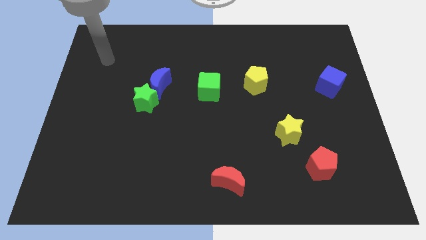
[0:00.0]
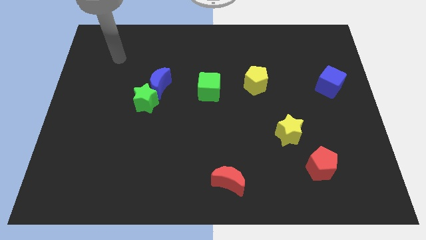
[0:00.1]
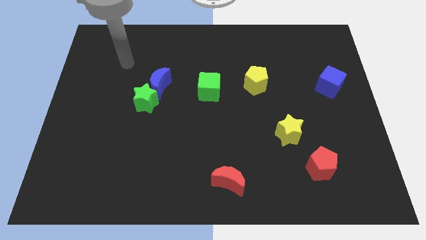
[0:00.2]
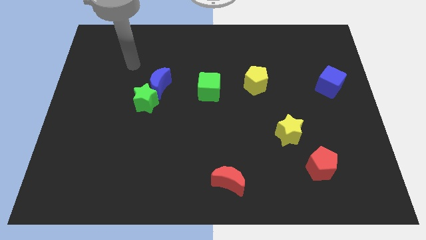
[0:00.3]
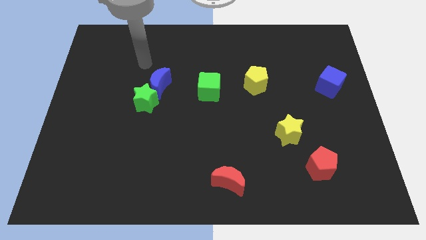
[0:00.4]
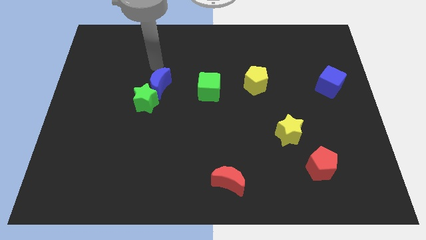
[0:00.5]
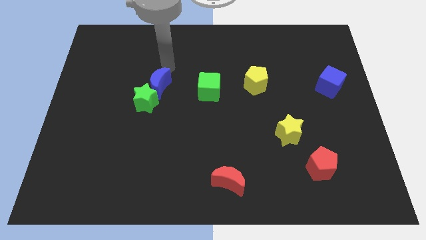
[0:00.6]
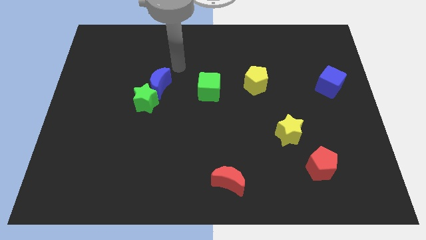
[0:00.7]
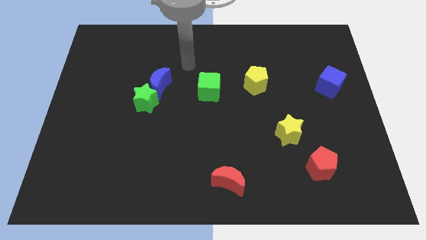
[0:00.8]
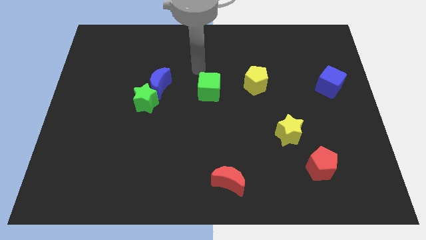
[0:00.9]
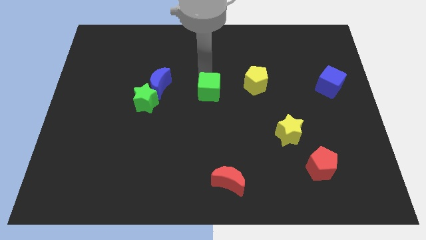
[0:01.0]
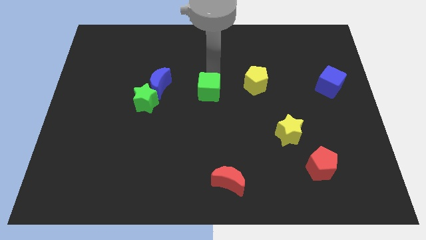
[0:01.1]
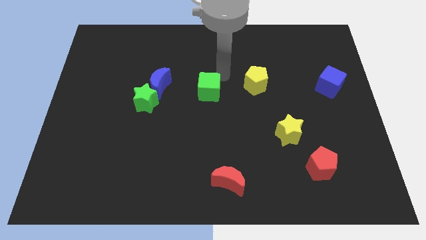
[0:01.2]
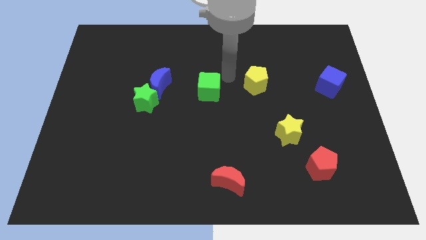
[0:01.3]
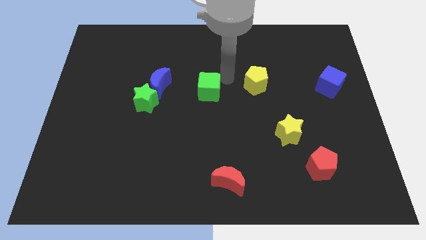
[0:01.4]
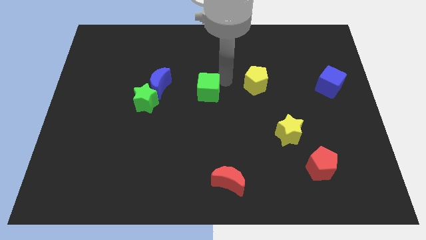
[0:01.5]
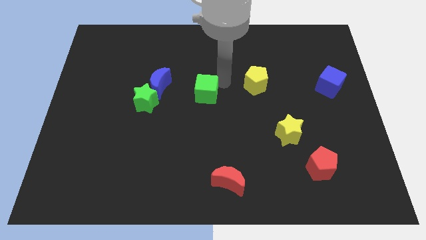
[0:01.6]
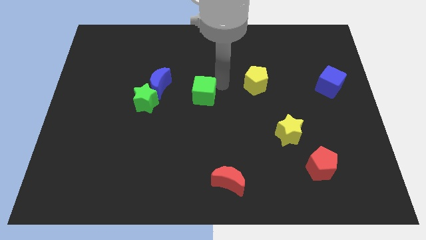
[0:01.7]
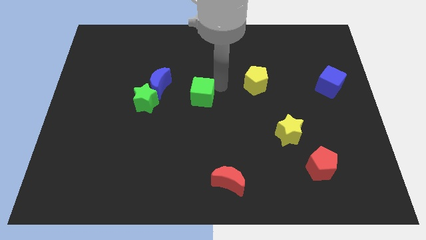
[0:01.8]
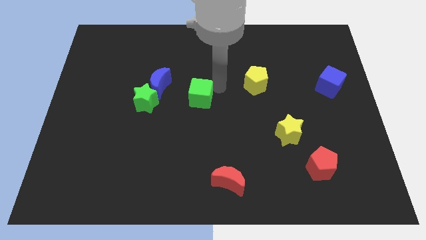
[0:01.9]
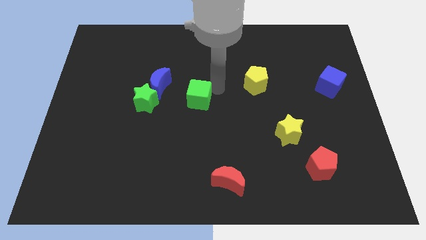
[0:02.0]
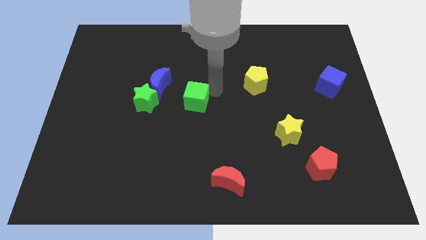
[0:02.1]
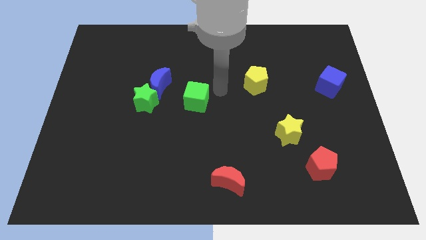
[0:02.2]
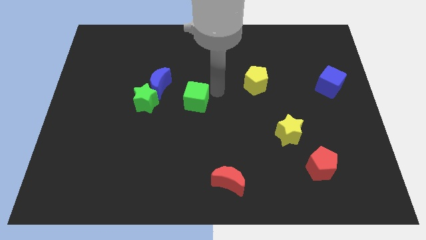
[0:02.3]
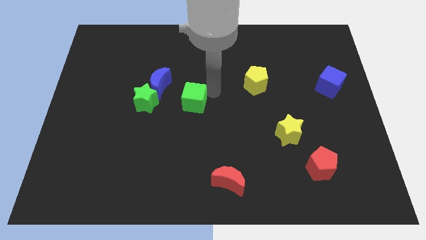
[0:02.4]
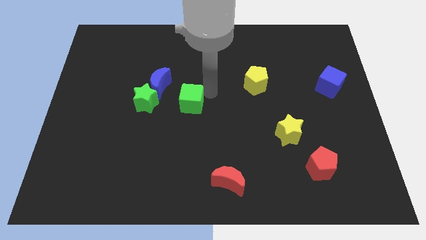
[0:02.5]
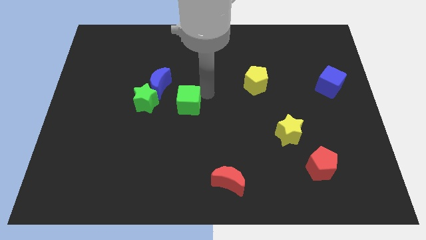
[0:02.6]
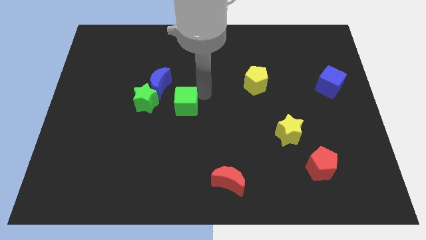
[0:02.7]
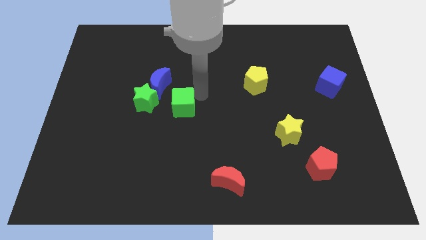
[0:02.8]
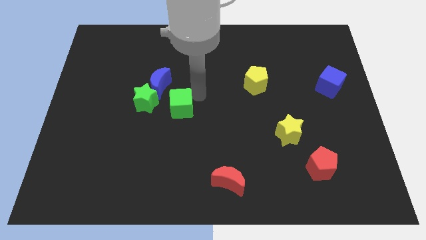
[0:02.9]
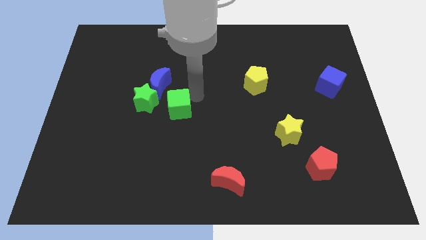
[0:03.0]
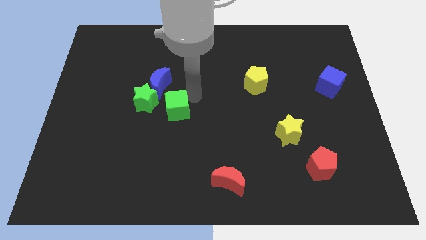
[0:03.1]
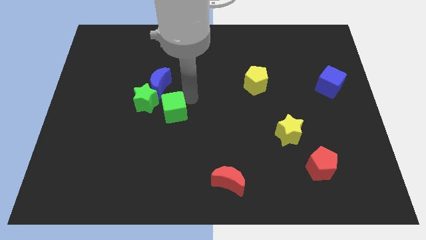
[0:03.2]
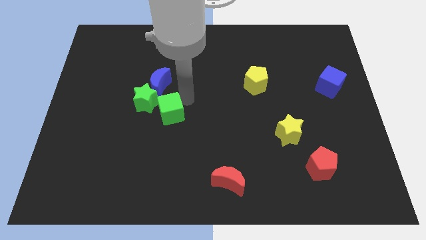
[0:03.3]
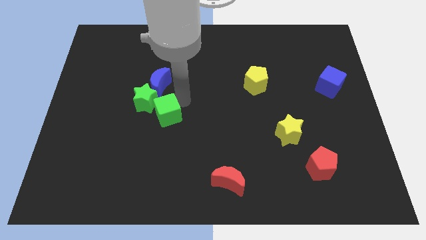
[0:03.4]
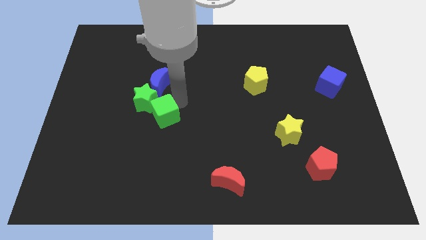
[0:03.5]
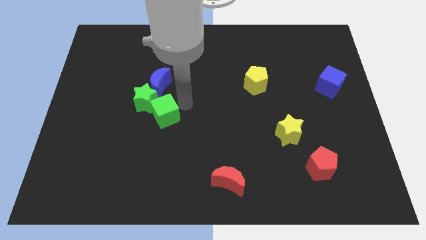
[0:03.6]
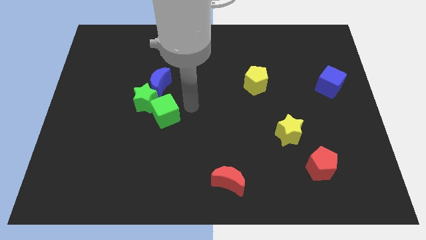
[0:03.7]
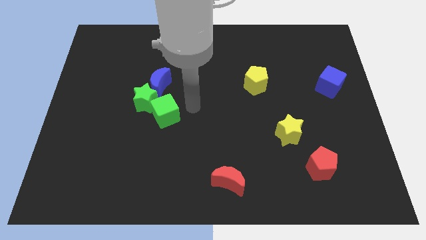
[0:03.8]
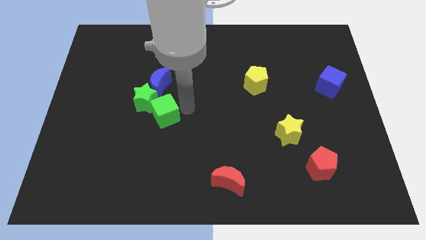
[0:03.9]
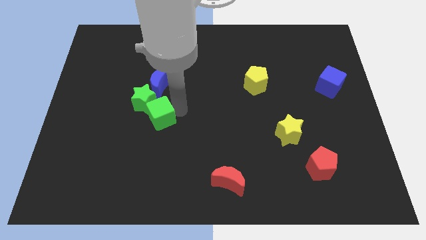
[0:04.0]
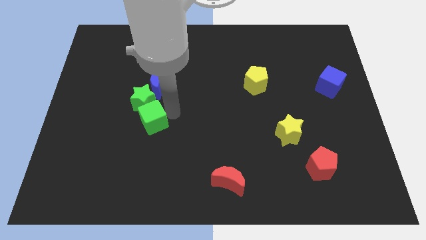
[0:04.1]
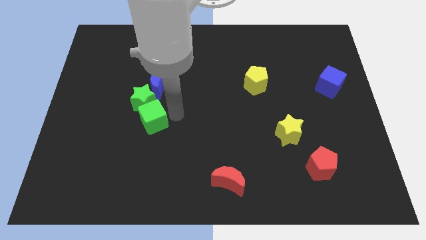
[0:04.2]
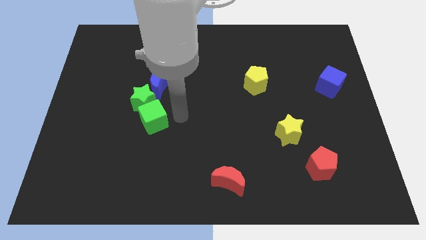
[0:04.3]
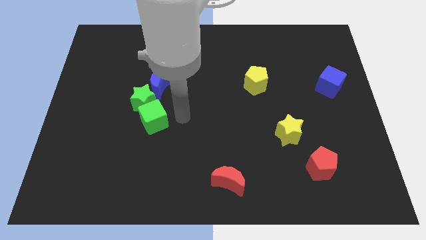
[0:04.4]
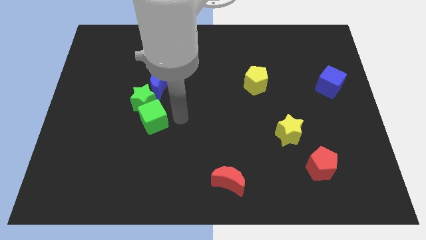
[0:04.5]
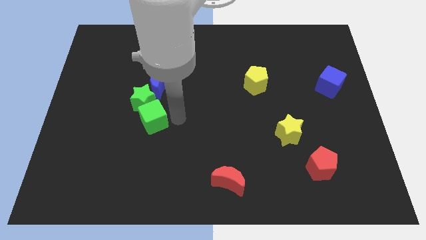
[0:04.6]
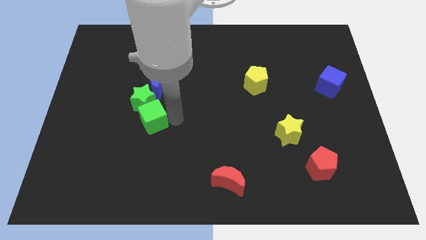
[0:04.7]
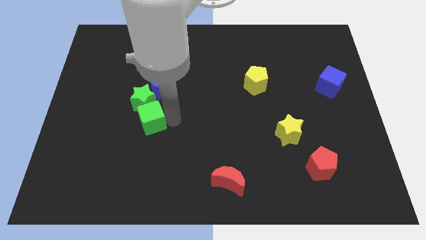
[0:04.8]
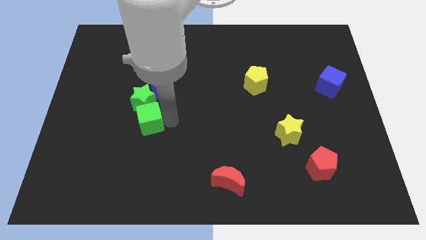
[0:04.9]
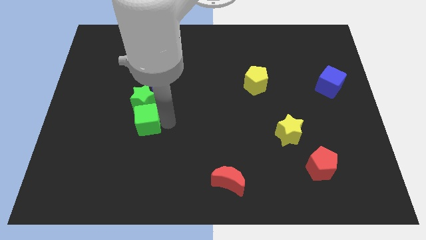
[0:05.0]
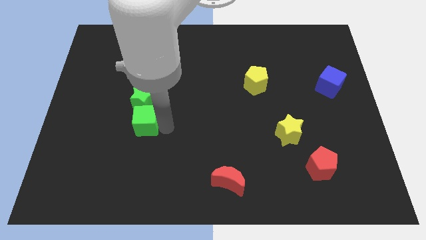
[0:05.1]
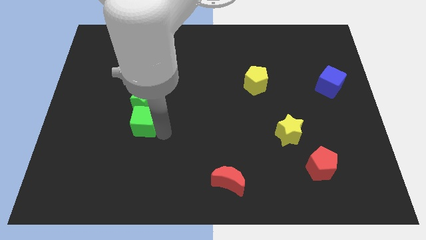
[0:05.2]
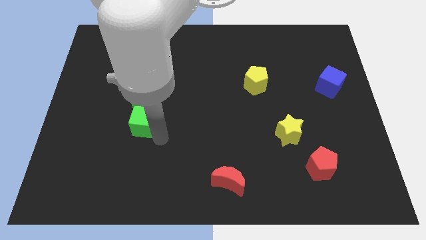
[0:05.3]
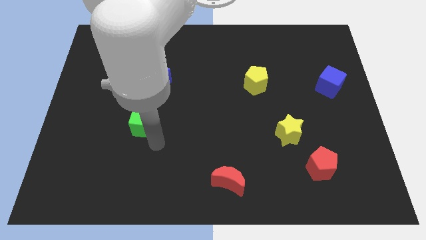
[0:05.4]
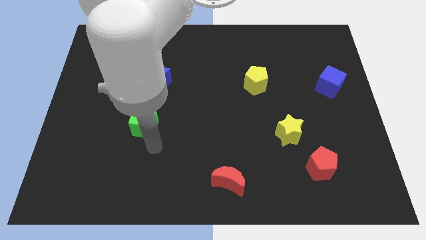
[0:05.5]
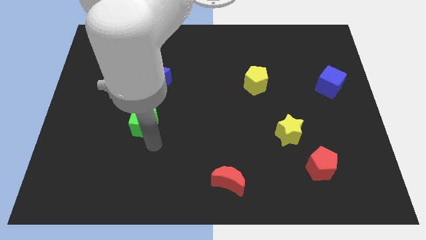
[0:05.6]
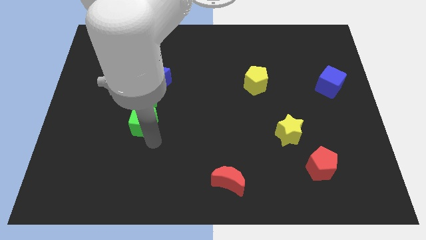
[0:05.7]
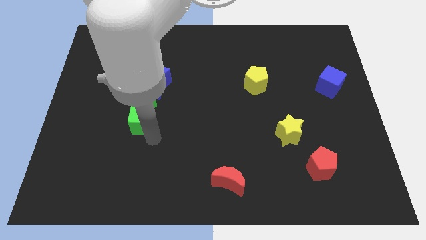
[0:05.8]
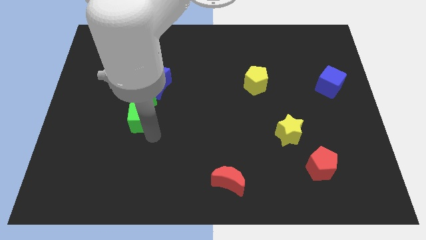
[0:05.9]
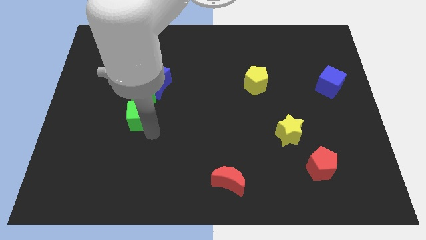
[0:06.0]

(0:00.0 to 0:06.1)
put the green cube to the bottom left side of the blue moon

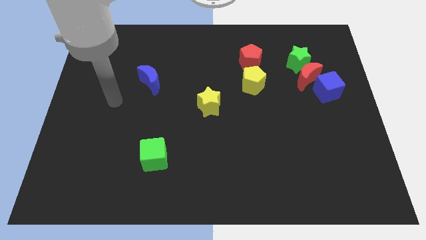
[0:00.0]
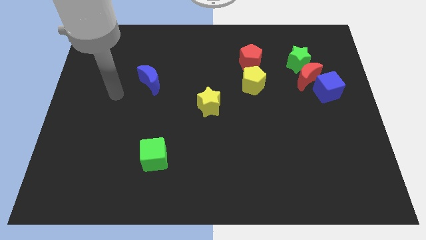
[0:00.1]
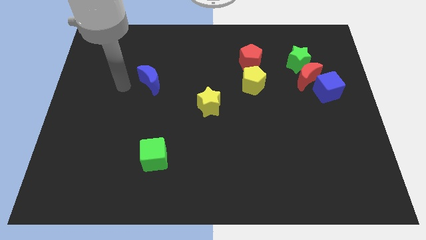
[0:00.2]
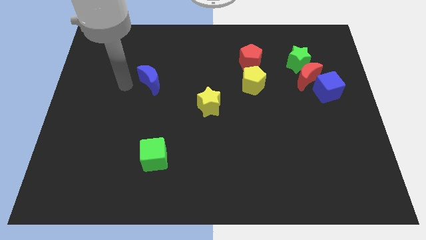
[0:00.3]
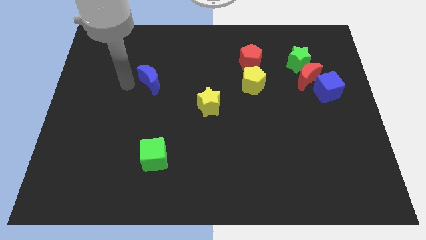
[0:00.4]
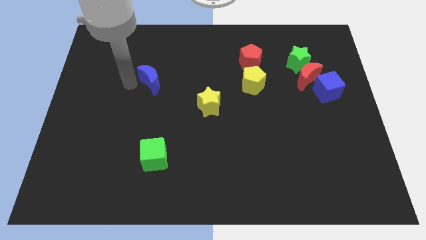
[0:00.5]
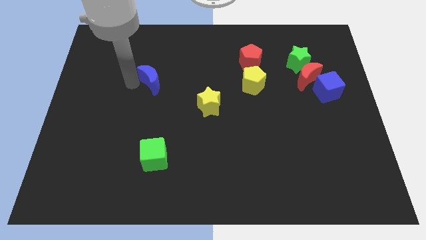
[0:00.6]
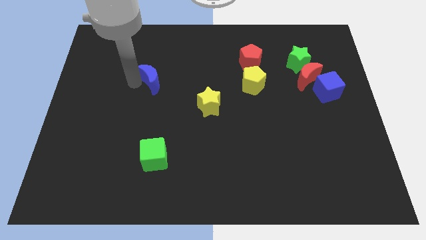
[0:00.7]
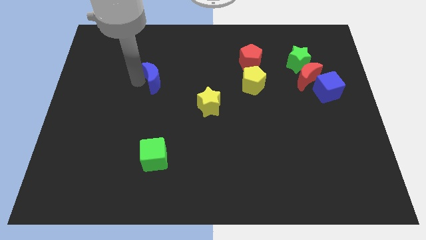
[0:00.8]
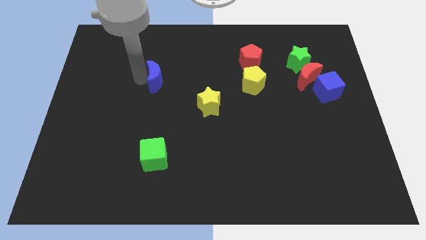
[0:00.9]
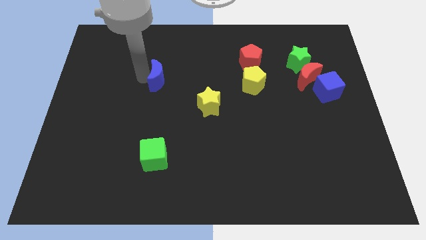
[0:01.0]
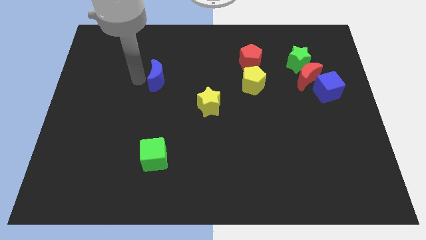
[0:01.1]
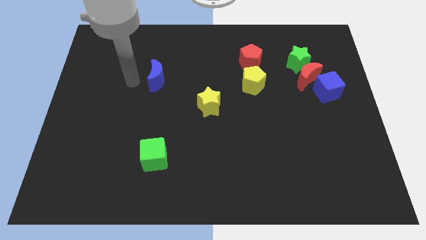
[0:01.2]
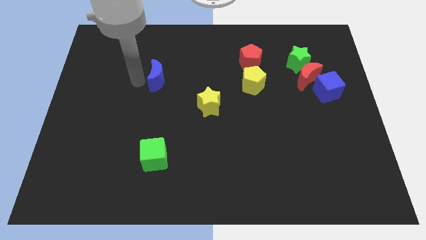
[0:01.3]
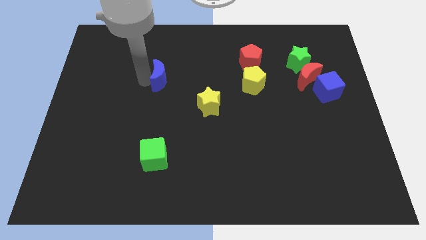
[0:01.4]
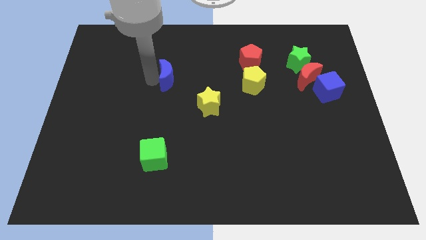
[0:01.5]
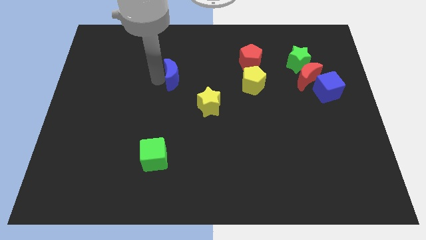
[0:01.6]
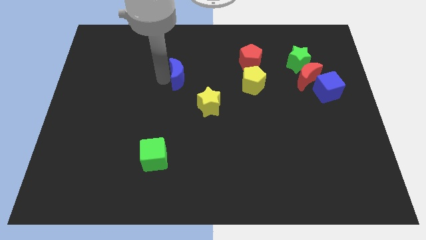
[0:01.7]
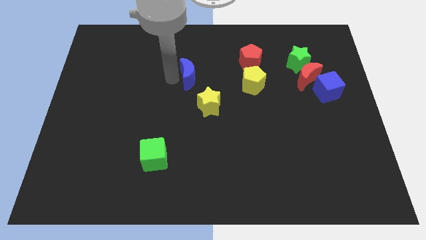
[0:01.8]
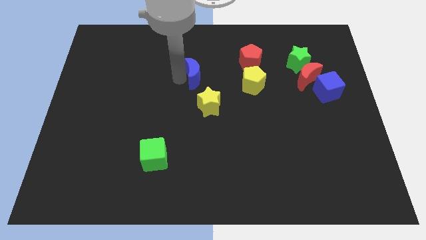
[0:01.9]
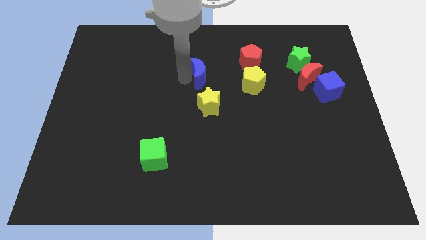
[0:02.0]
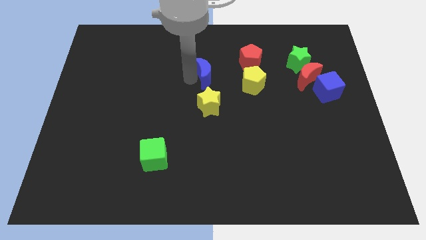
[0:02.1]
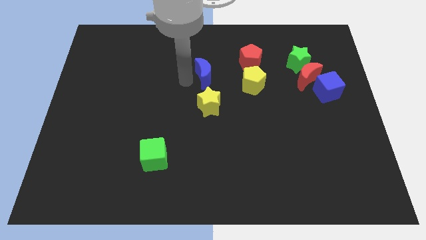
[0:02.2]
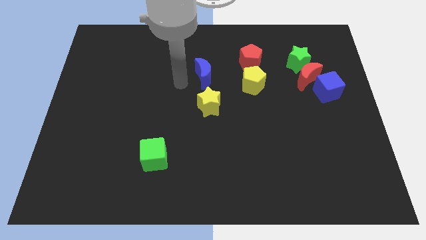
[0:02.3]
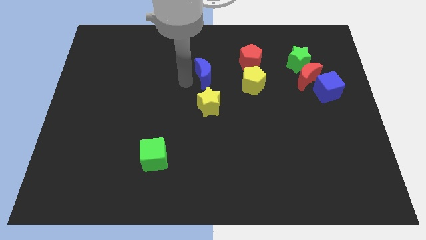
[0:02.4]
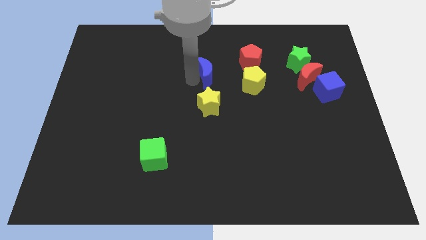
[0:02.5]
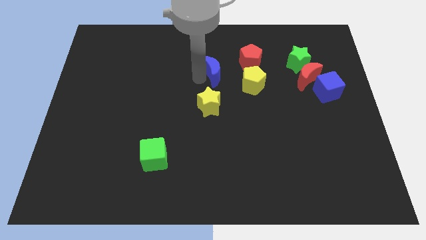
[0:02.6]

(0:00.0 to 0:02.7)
move the blue moon diagonally up and to the left of the yellow pentagon
